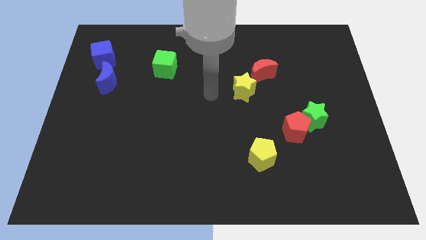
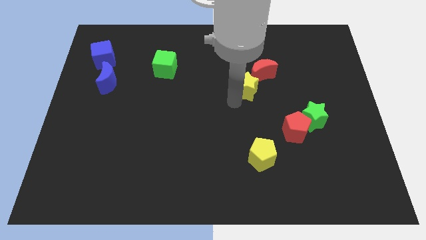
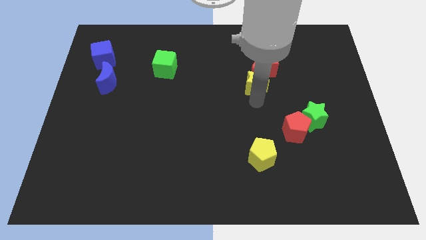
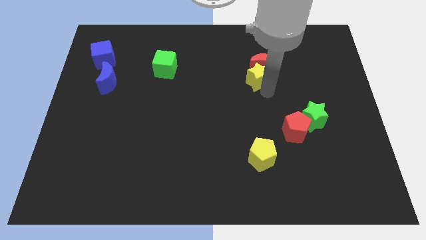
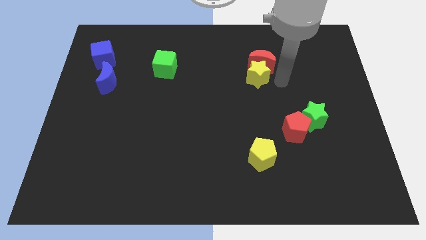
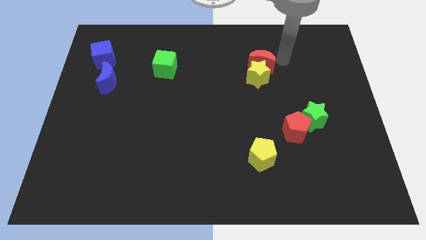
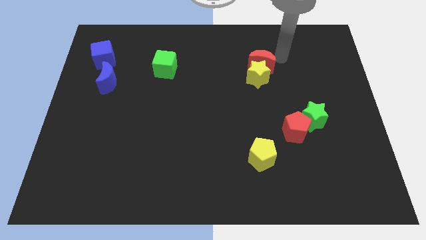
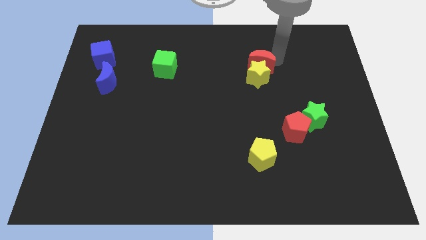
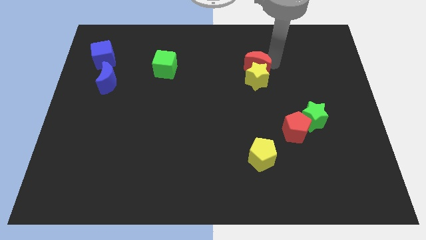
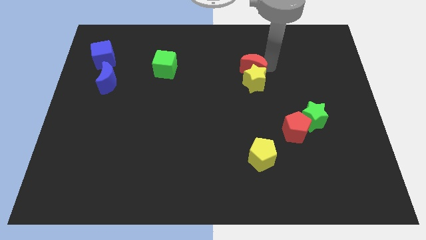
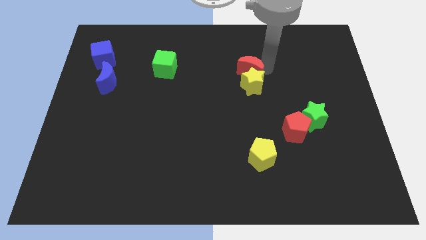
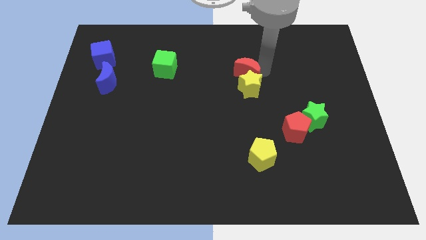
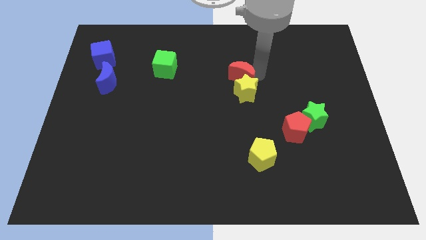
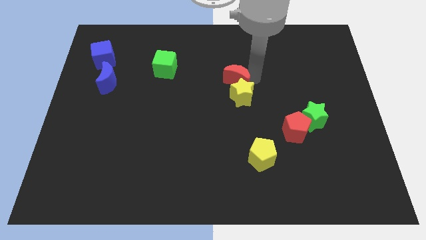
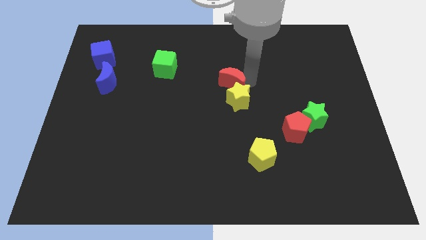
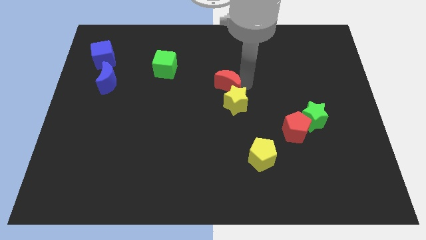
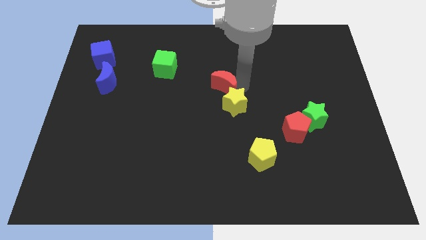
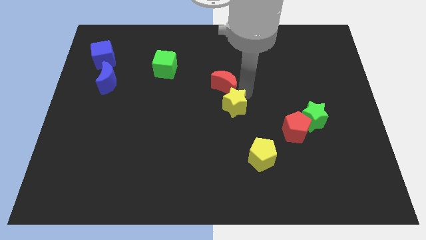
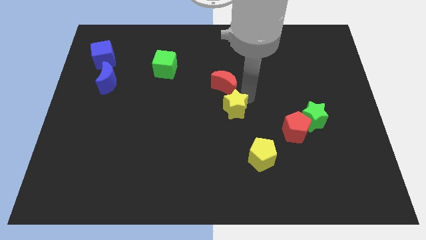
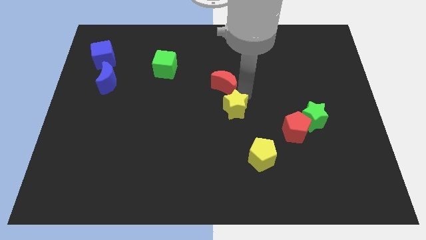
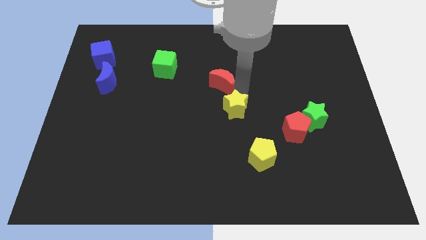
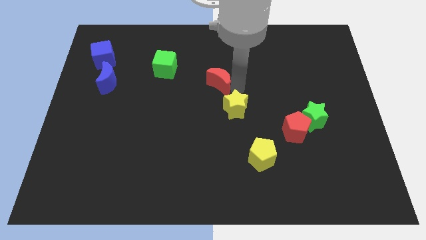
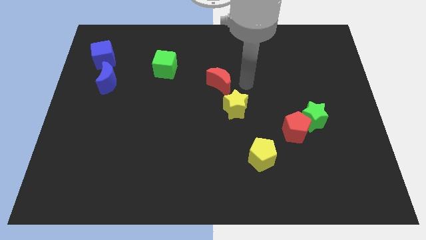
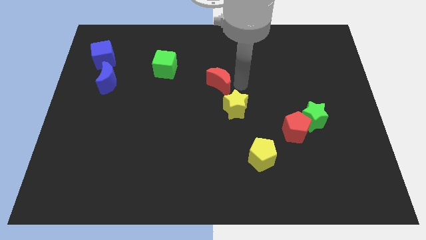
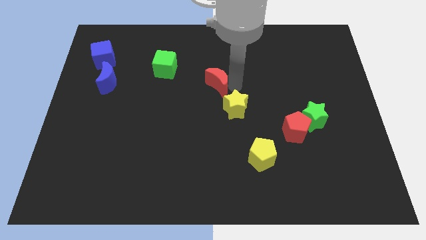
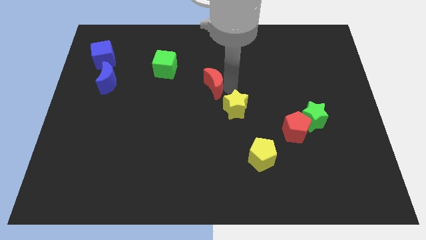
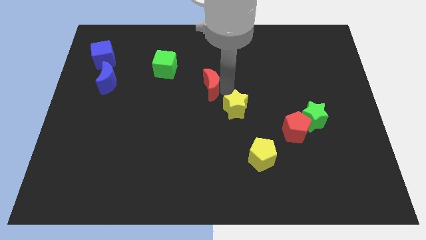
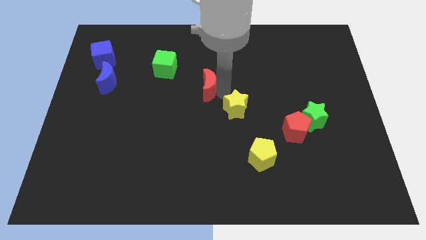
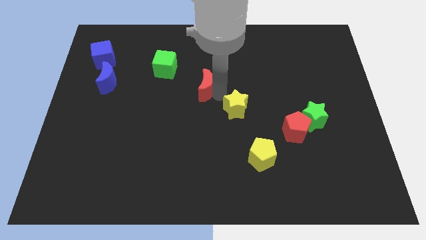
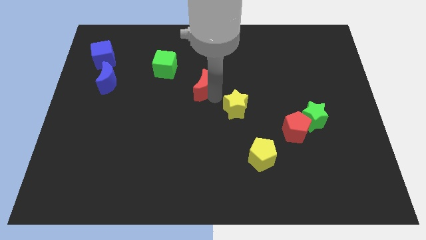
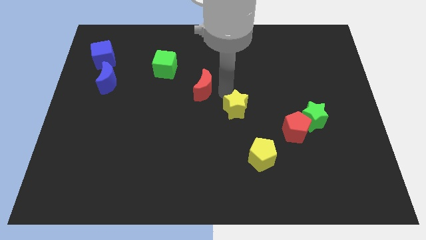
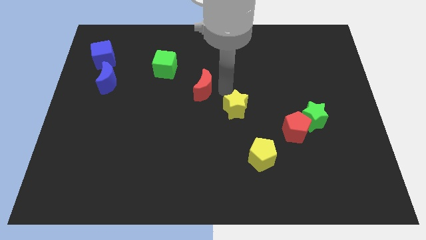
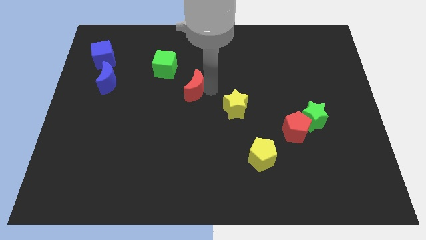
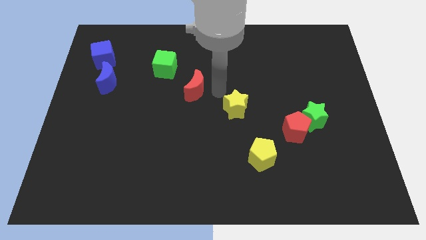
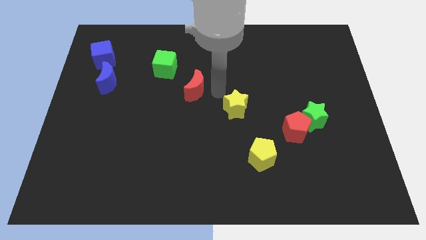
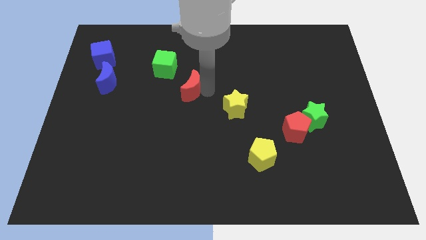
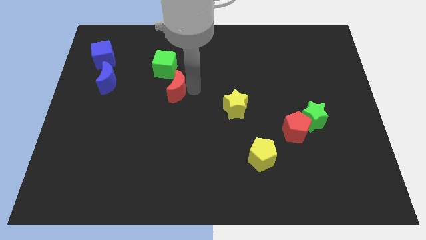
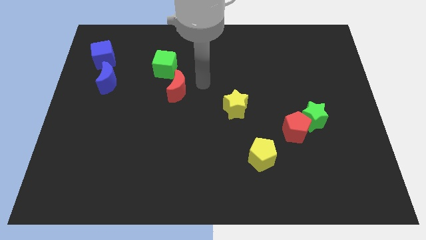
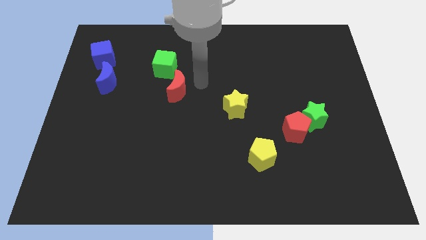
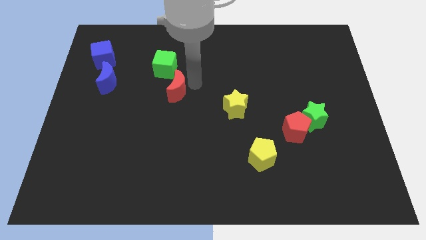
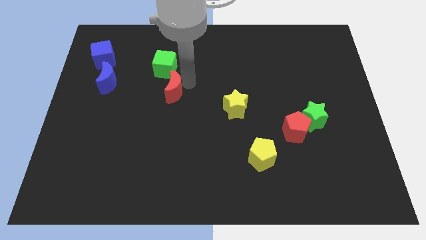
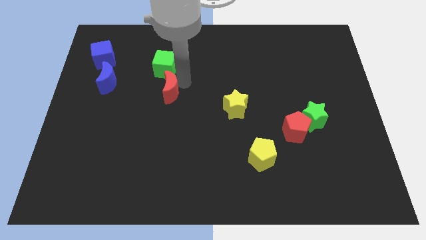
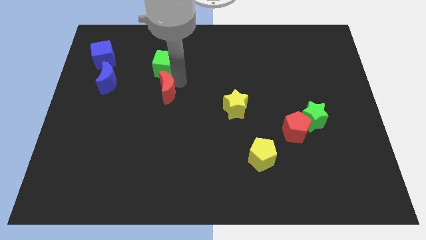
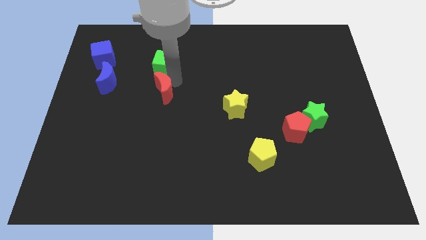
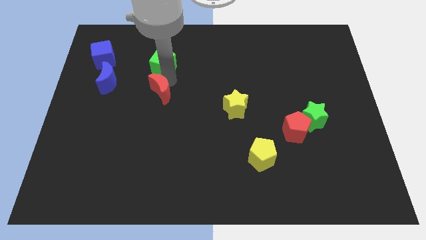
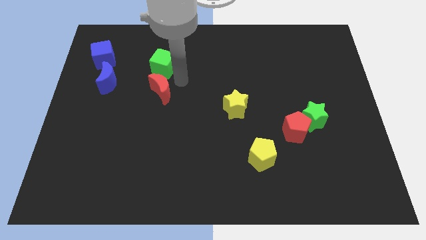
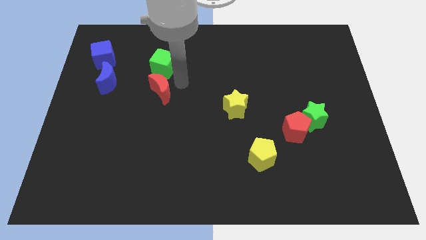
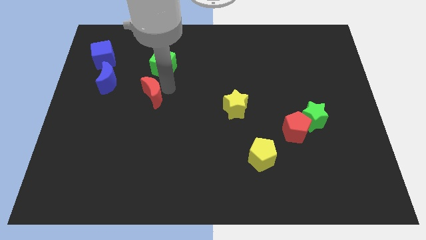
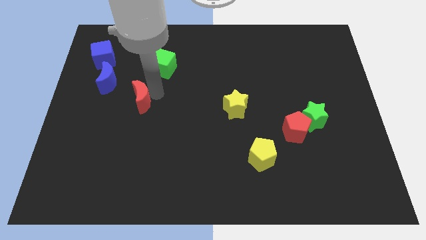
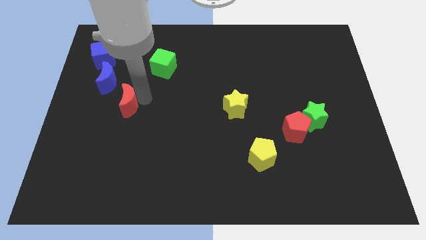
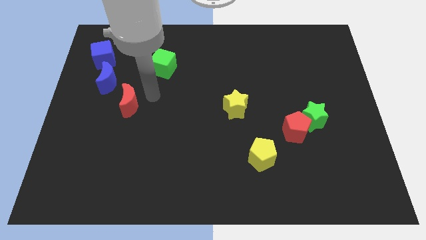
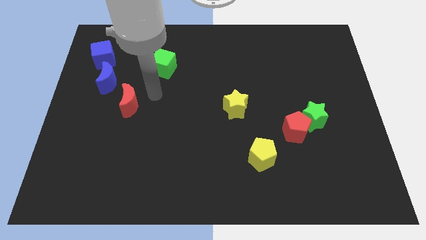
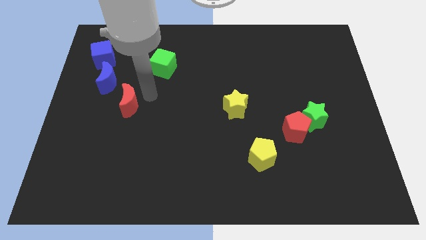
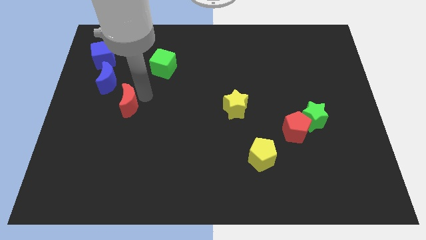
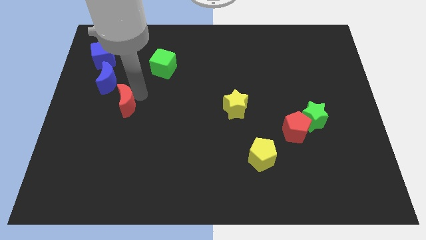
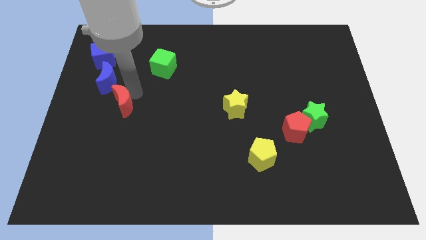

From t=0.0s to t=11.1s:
put the red moon to the bottom of the blue moon

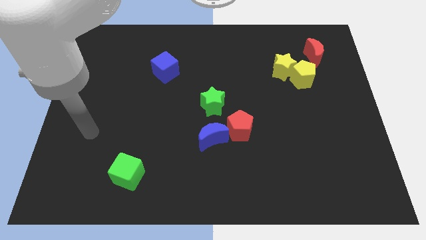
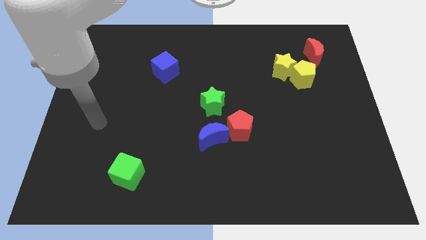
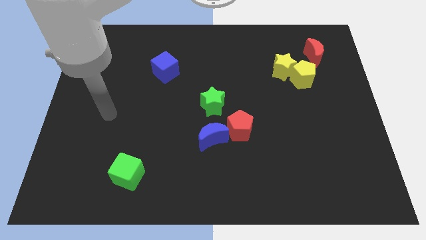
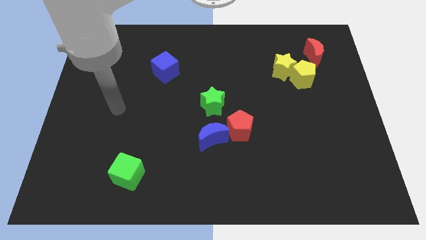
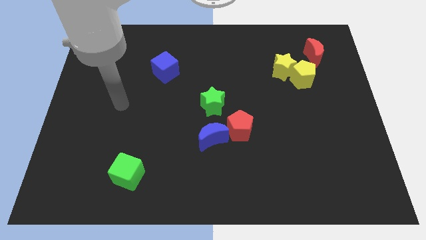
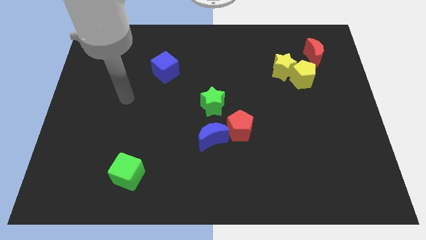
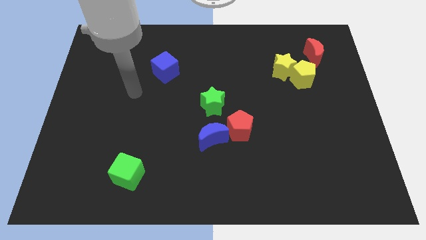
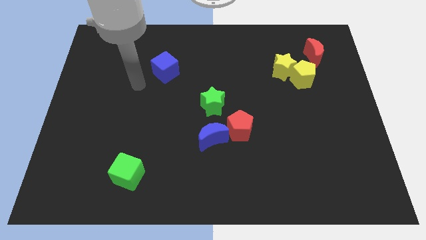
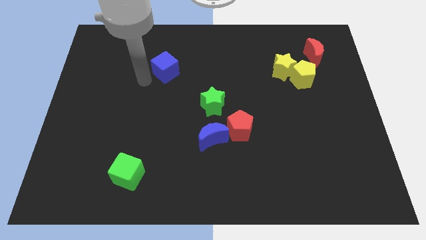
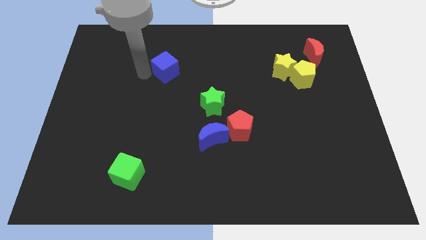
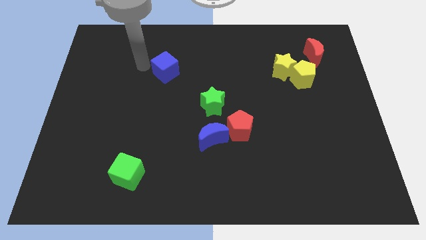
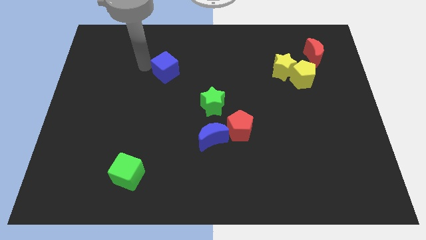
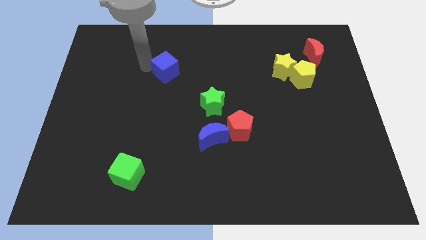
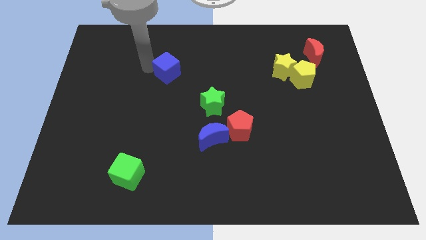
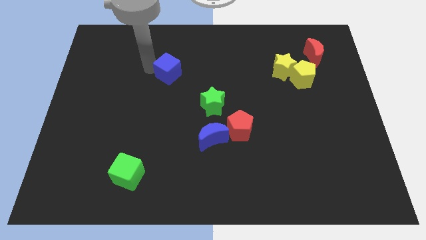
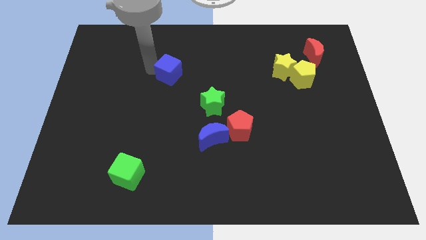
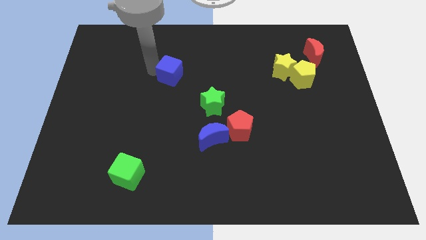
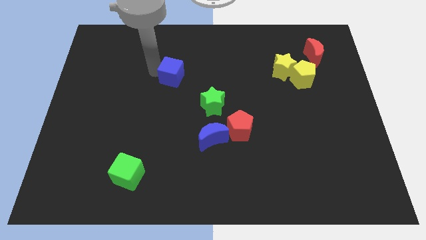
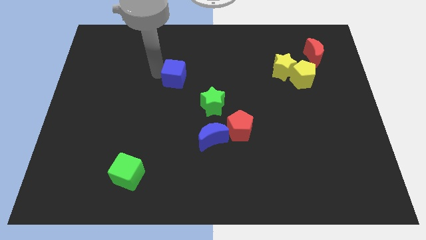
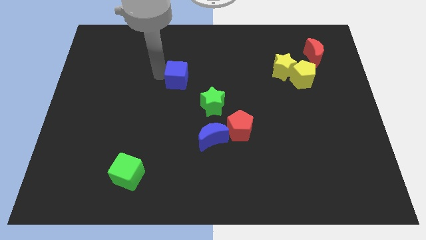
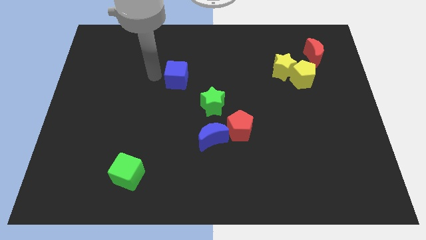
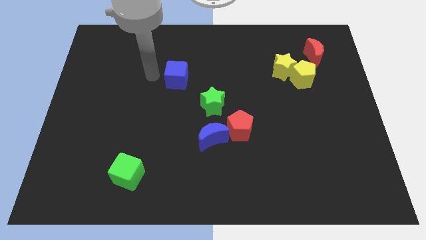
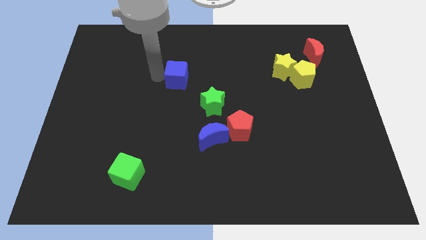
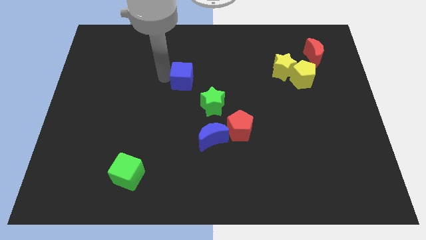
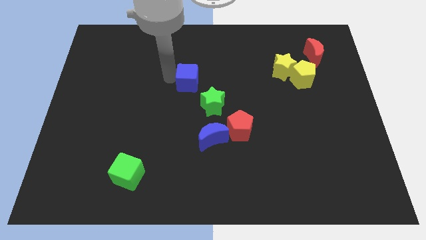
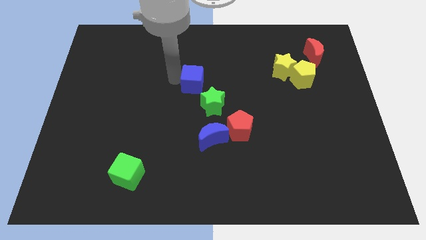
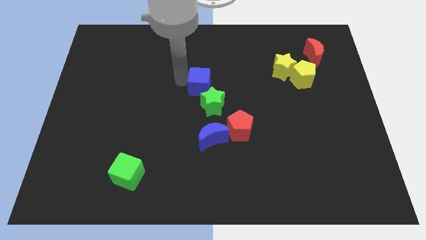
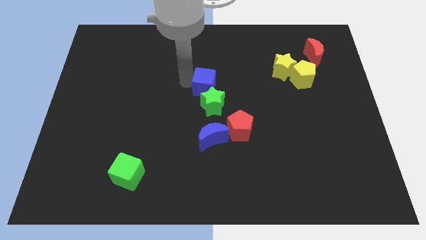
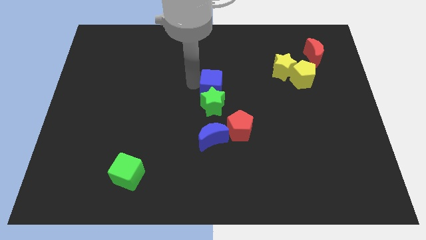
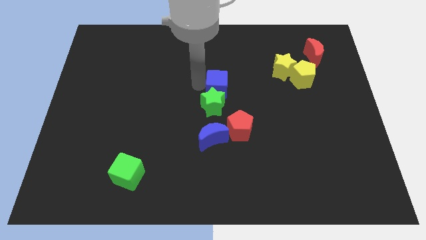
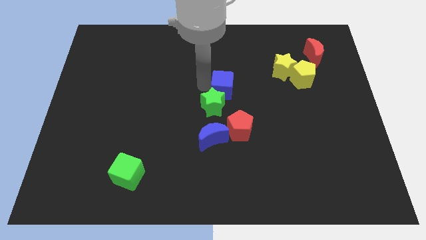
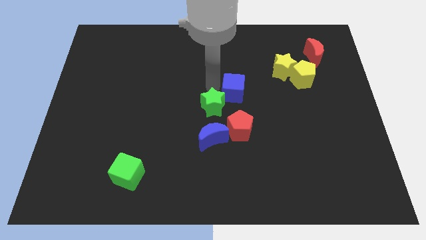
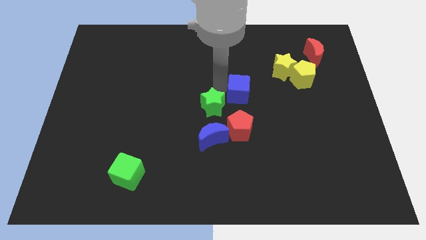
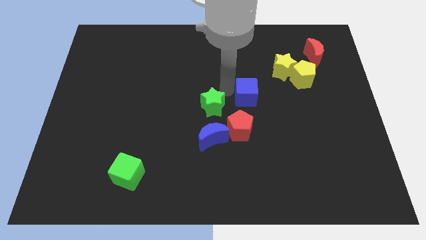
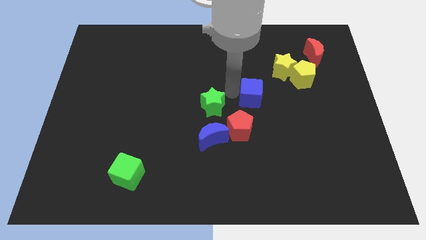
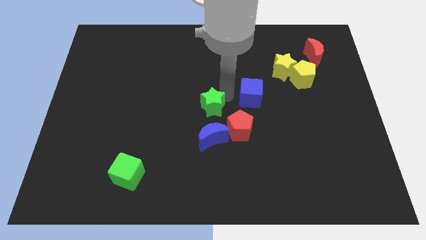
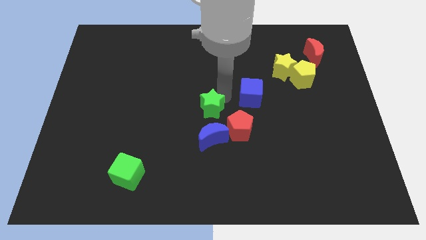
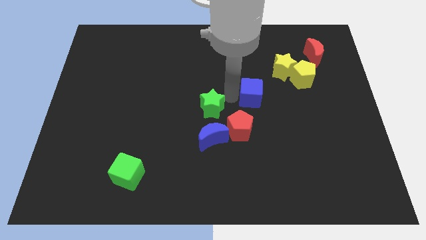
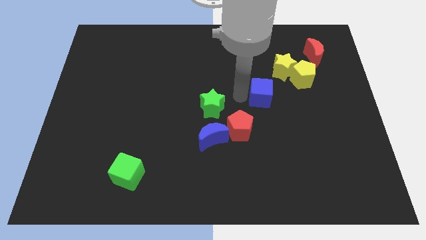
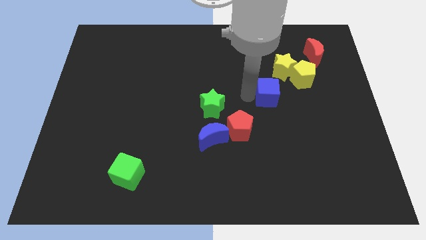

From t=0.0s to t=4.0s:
put the blue cube to the bottom left side of the yellow pentagon
